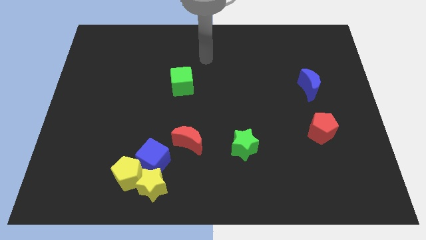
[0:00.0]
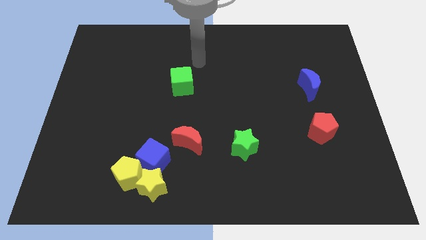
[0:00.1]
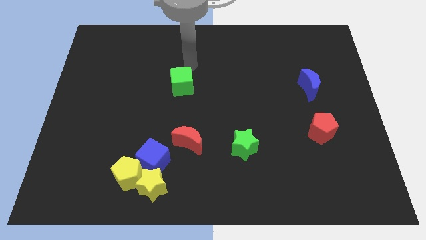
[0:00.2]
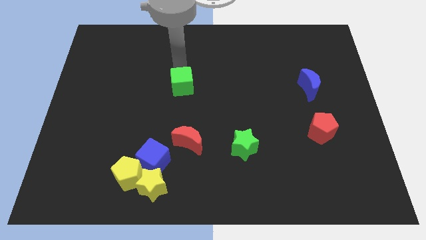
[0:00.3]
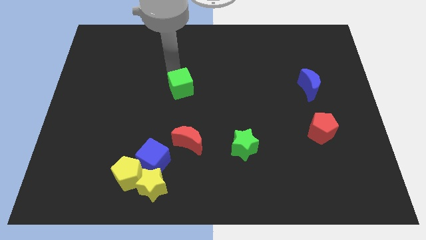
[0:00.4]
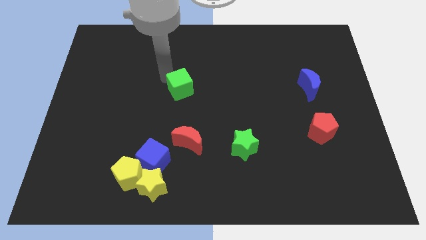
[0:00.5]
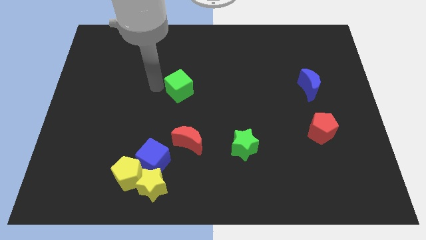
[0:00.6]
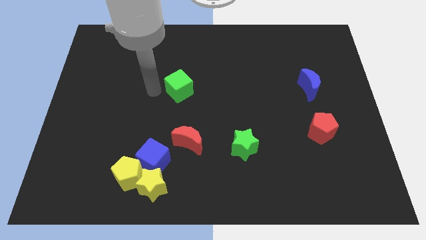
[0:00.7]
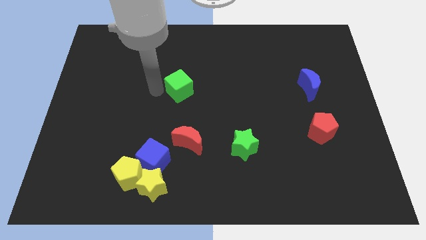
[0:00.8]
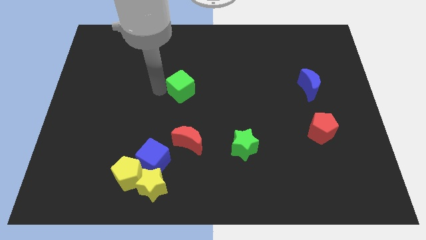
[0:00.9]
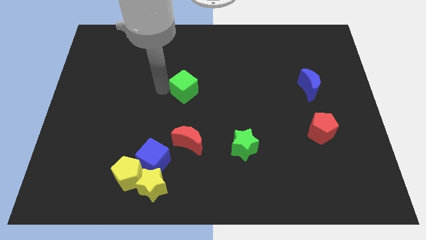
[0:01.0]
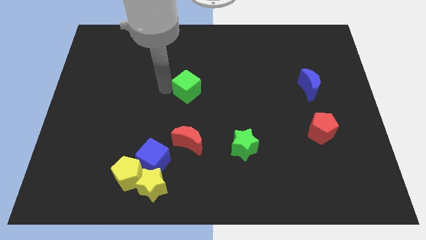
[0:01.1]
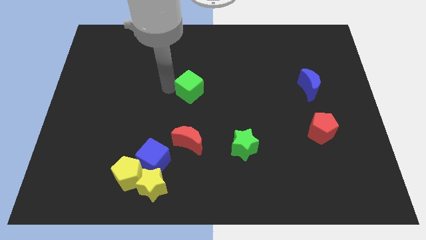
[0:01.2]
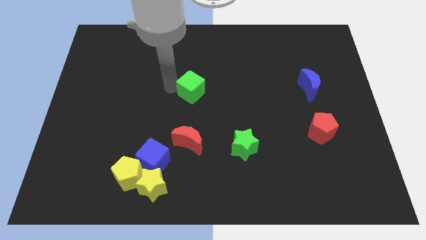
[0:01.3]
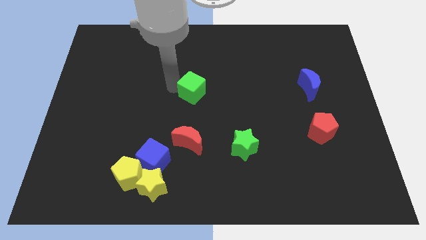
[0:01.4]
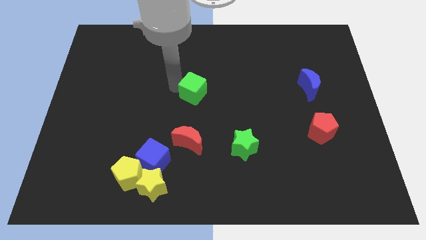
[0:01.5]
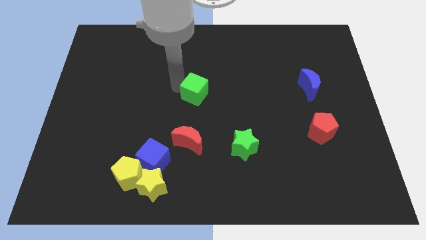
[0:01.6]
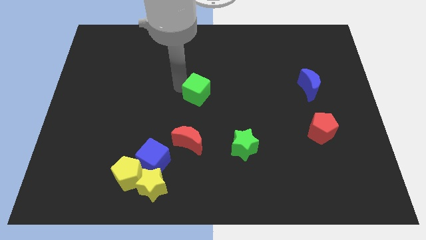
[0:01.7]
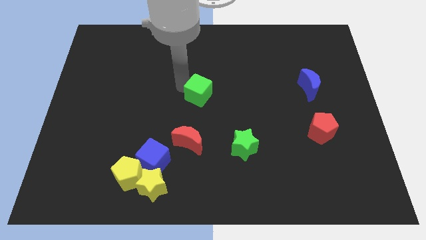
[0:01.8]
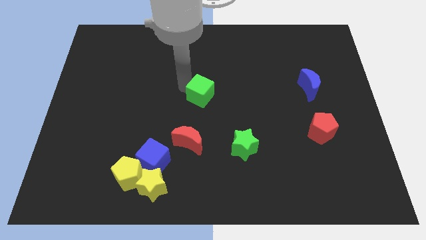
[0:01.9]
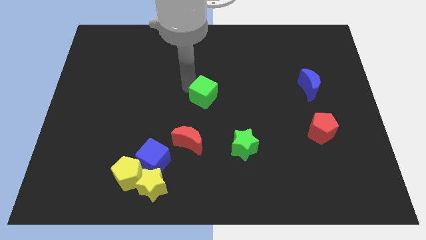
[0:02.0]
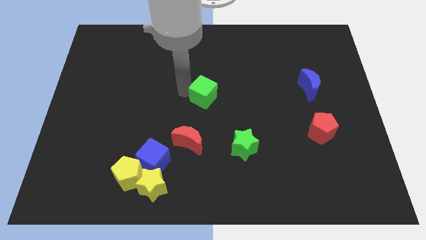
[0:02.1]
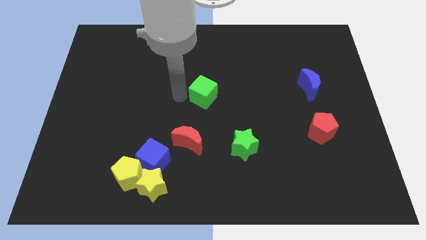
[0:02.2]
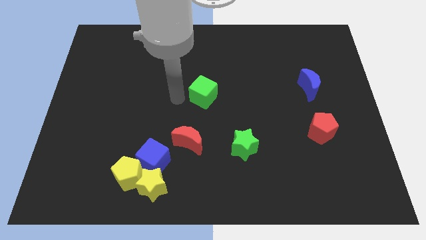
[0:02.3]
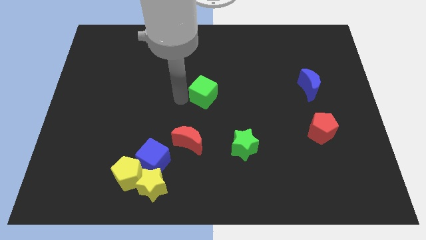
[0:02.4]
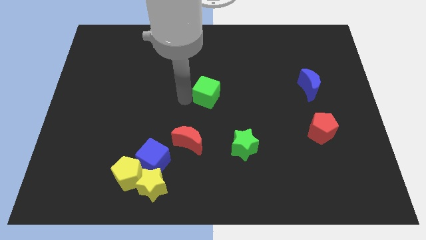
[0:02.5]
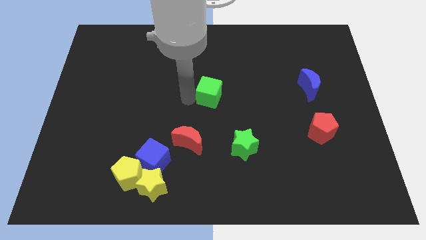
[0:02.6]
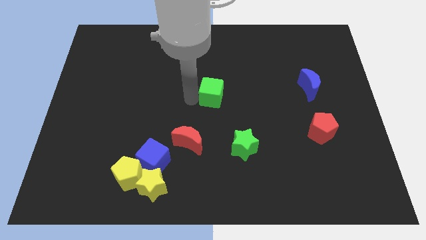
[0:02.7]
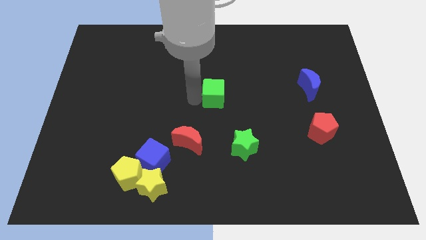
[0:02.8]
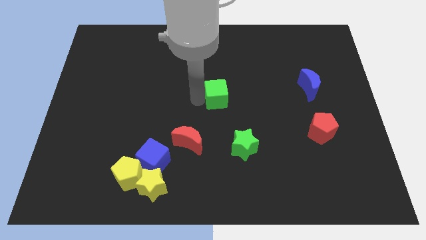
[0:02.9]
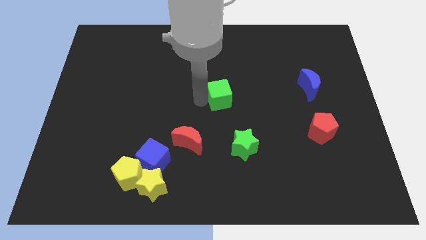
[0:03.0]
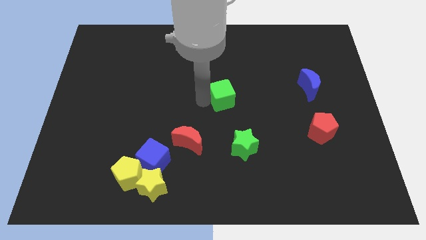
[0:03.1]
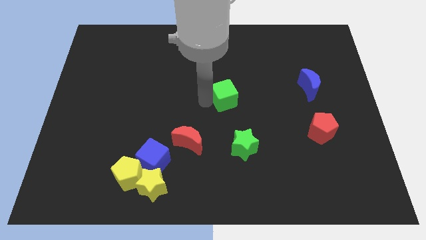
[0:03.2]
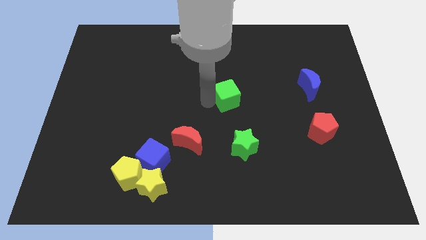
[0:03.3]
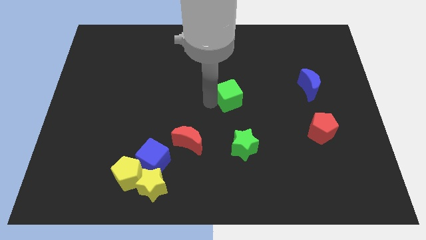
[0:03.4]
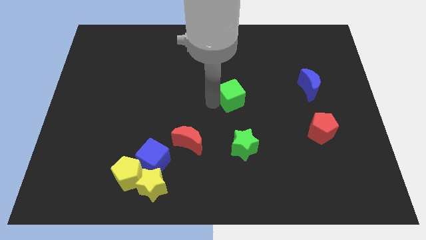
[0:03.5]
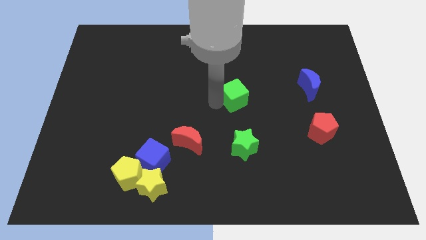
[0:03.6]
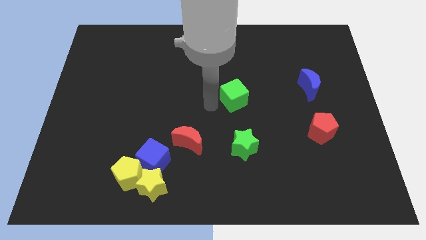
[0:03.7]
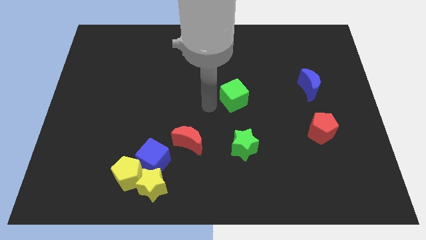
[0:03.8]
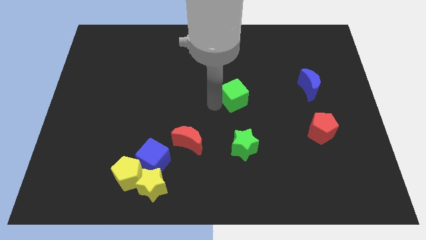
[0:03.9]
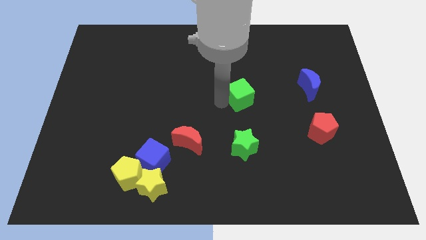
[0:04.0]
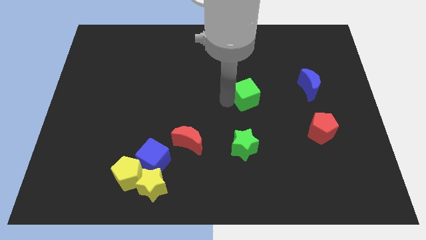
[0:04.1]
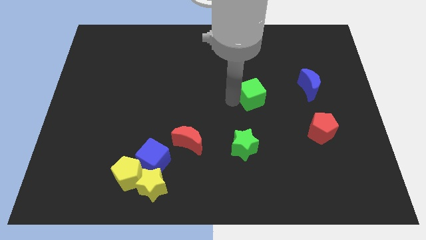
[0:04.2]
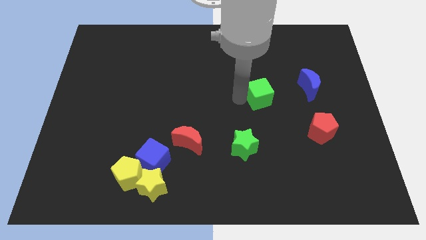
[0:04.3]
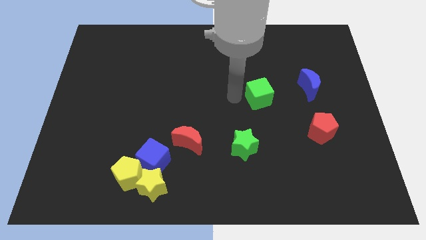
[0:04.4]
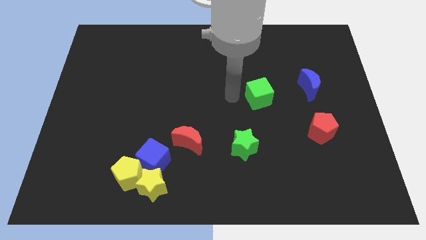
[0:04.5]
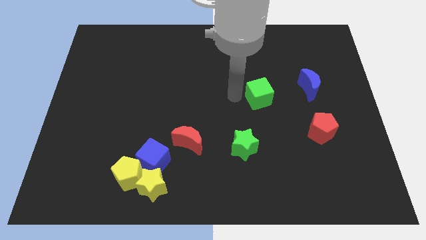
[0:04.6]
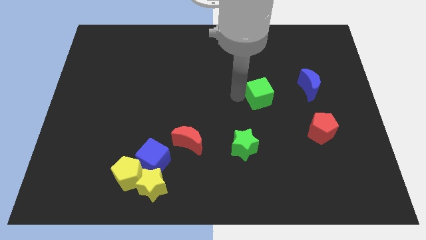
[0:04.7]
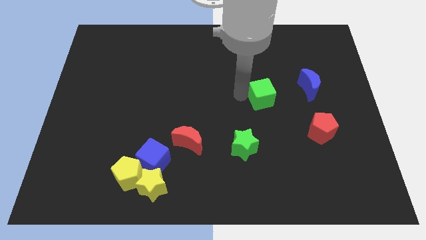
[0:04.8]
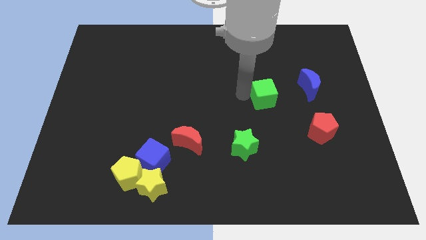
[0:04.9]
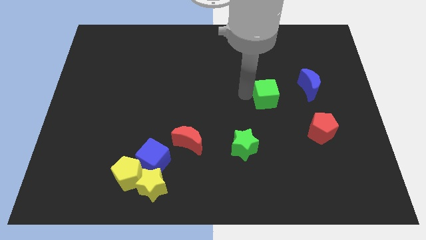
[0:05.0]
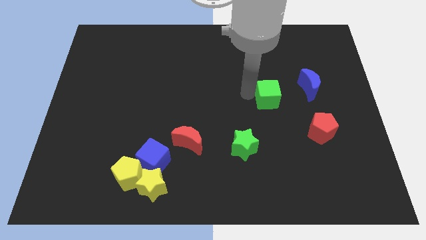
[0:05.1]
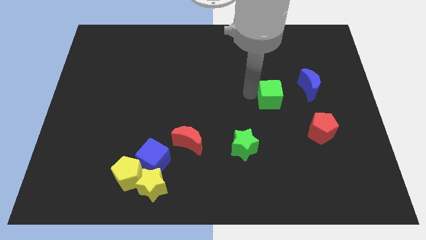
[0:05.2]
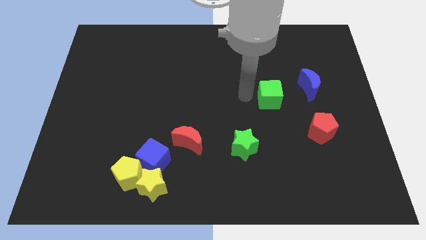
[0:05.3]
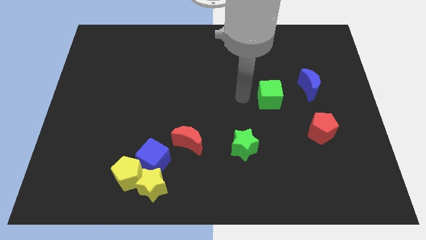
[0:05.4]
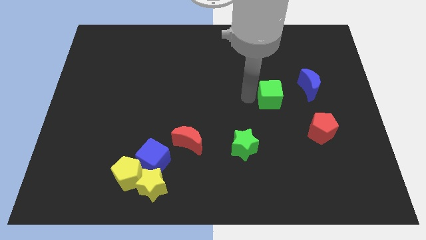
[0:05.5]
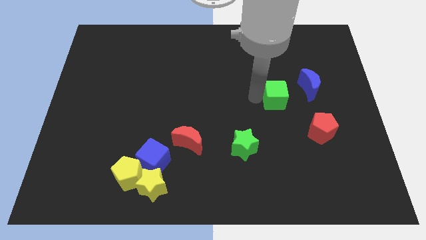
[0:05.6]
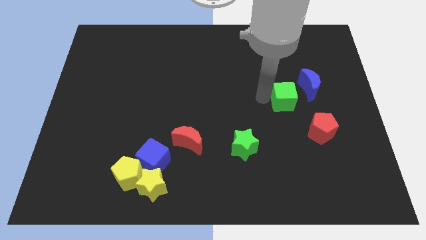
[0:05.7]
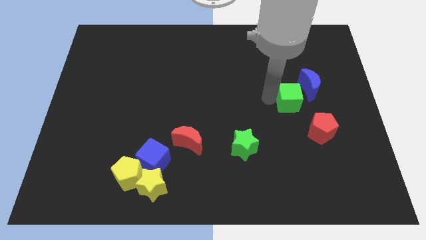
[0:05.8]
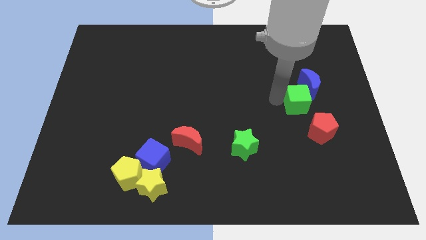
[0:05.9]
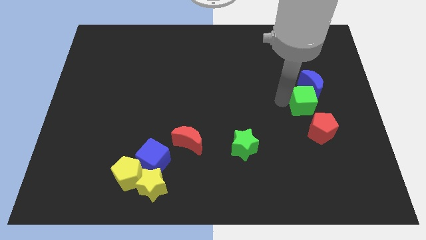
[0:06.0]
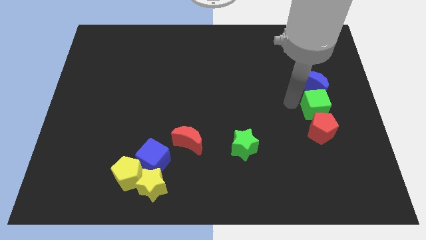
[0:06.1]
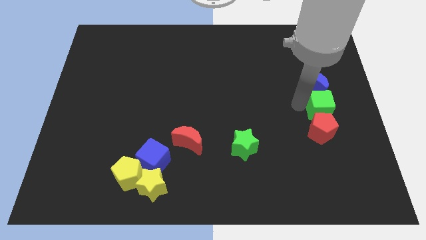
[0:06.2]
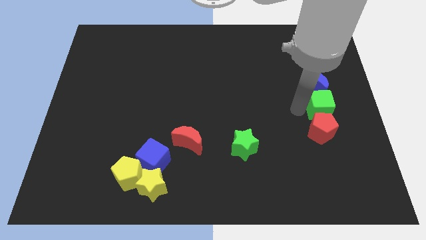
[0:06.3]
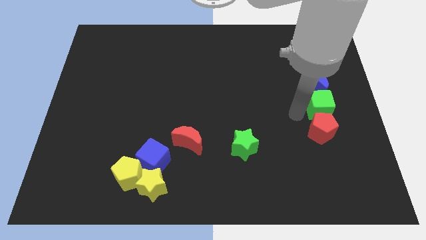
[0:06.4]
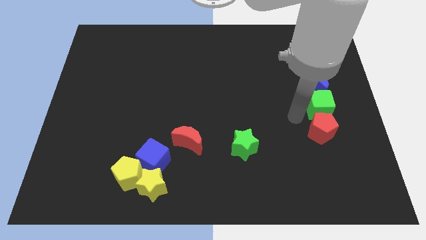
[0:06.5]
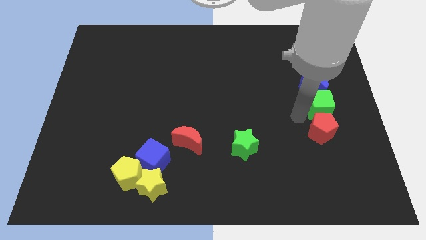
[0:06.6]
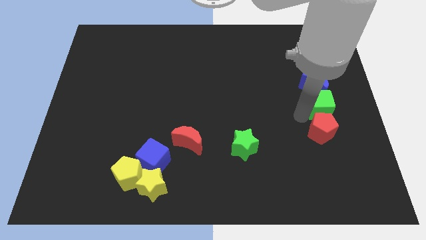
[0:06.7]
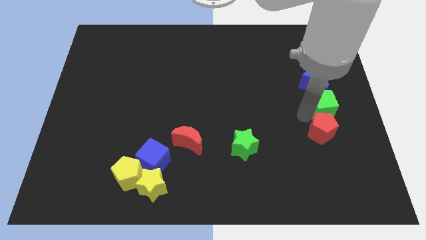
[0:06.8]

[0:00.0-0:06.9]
move the green cube to the center right
